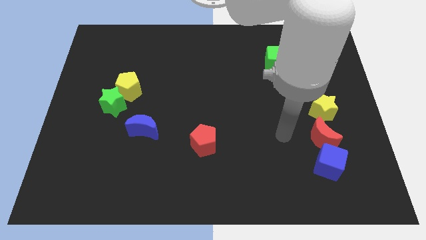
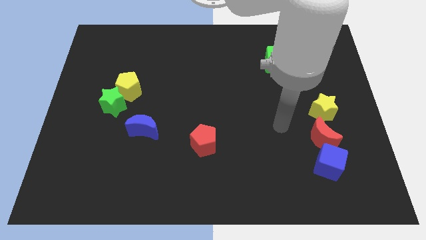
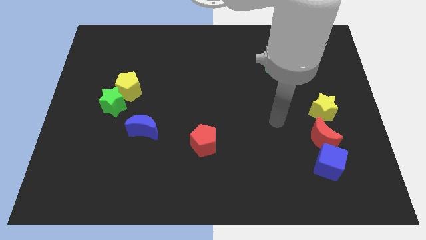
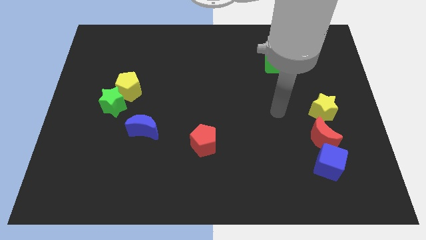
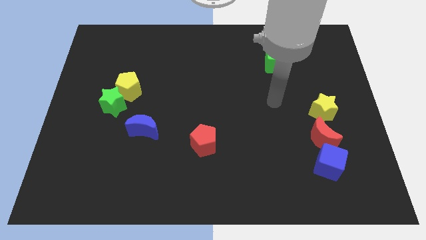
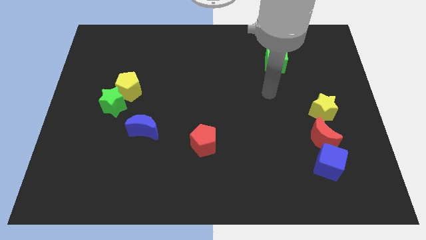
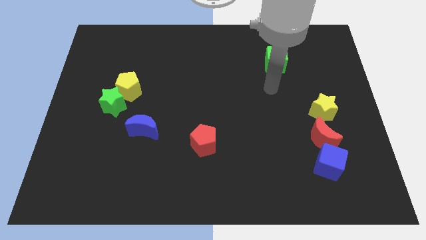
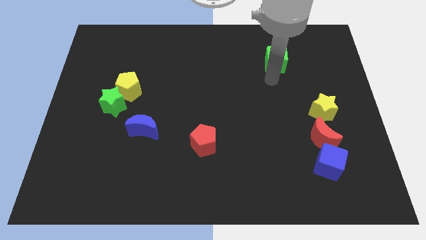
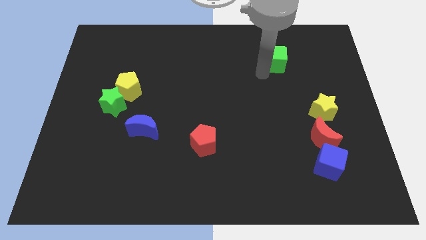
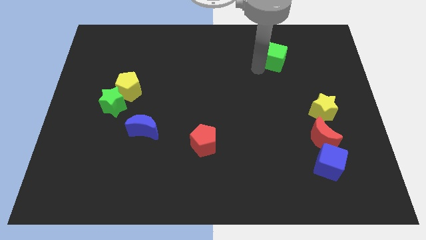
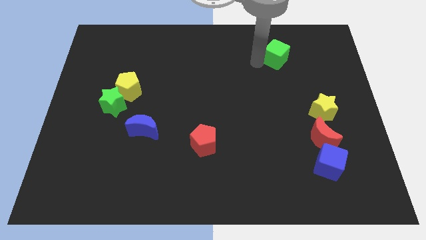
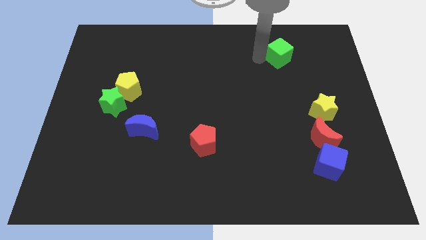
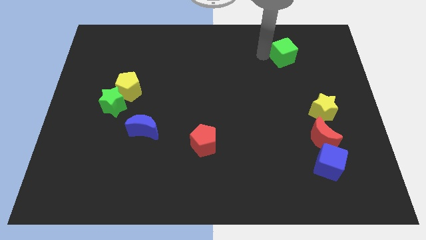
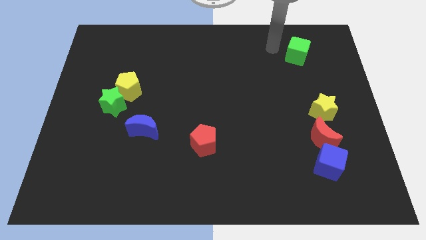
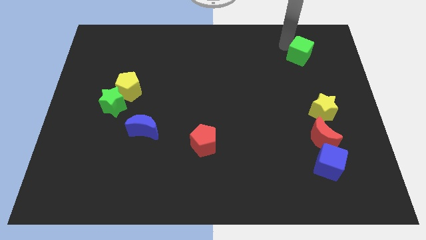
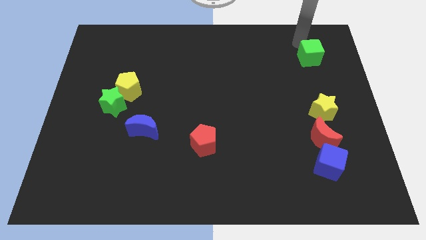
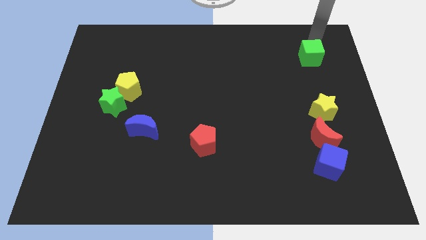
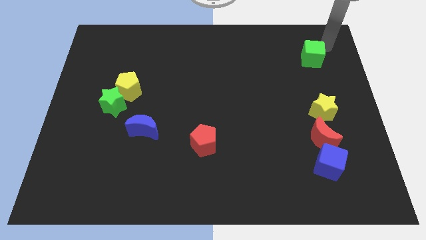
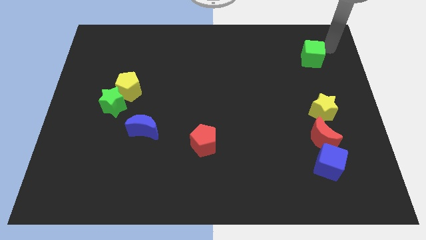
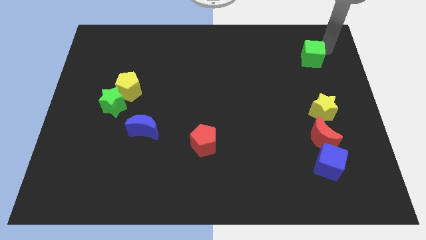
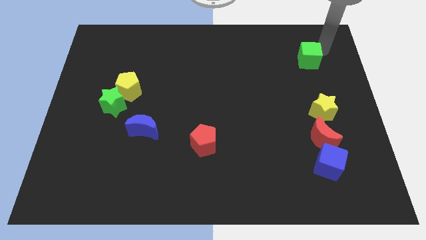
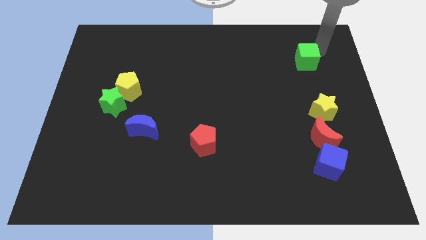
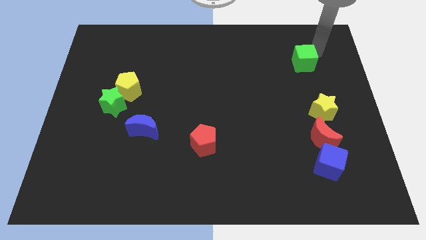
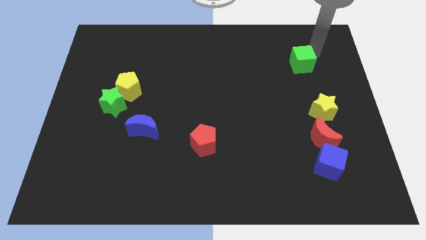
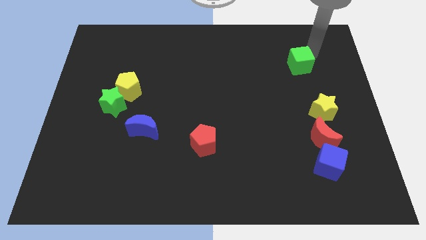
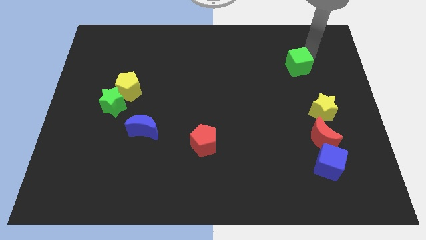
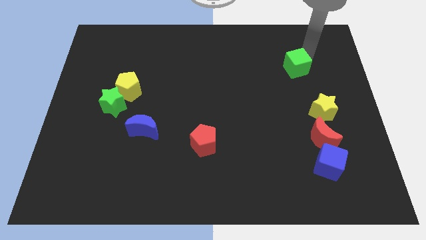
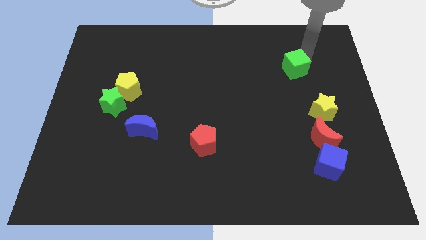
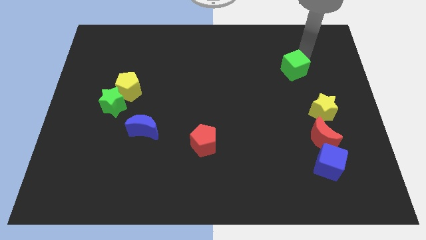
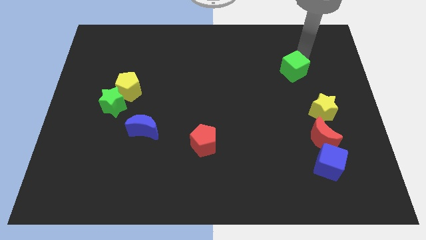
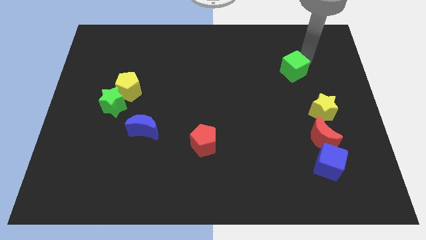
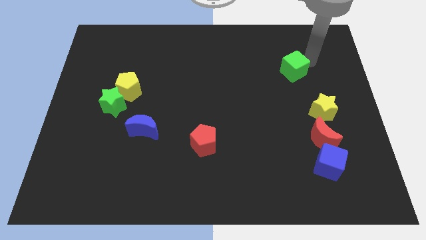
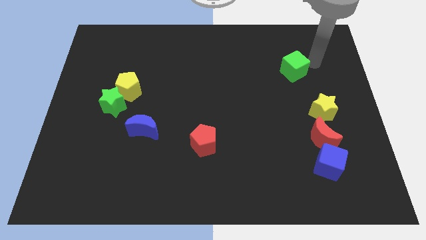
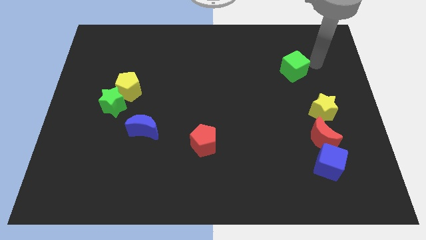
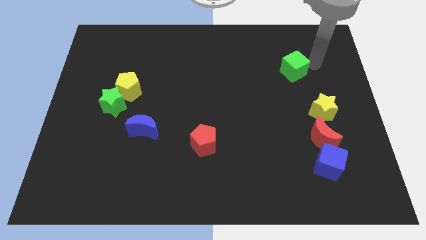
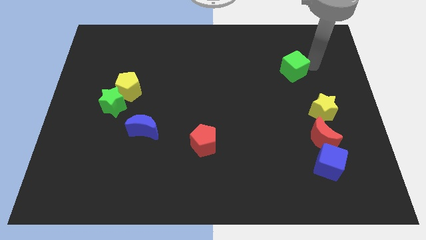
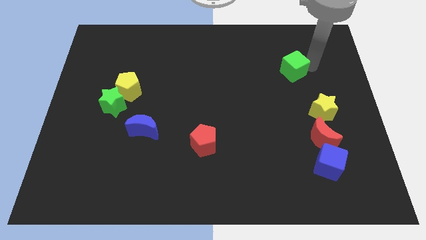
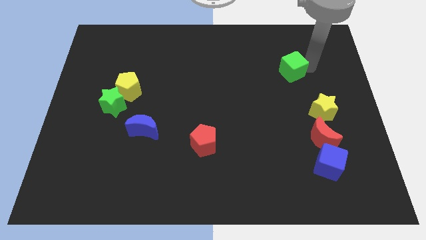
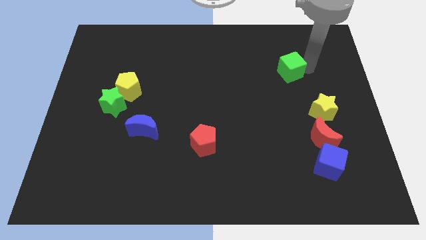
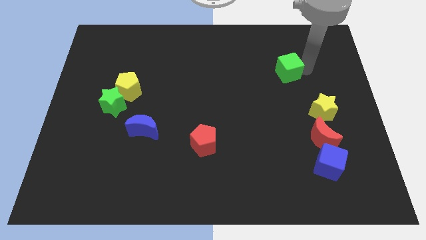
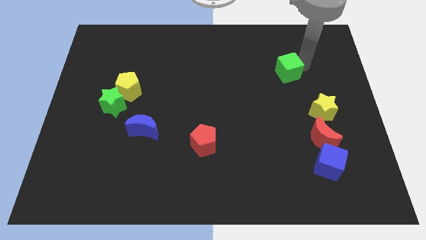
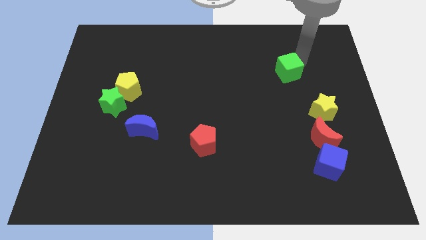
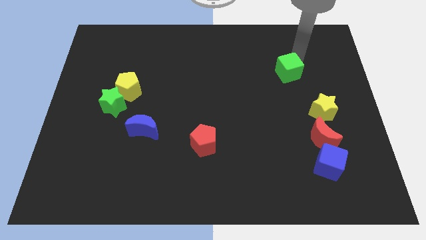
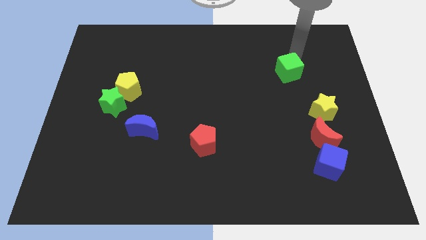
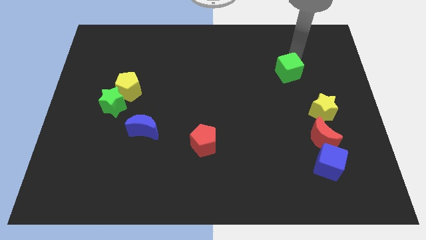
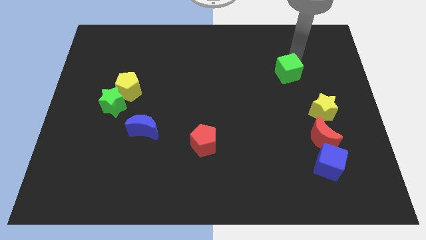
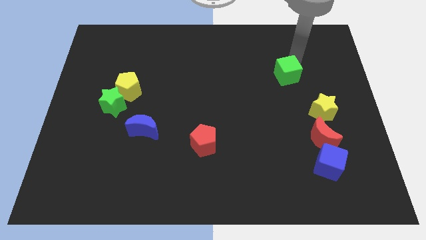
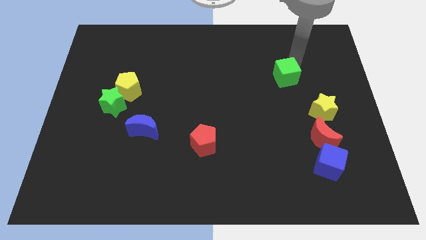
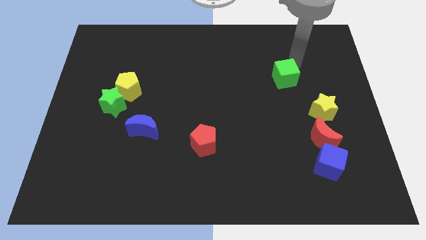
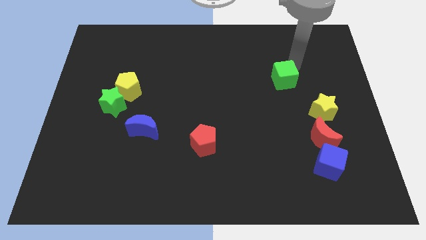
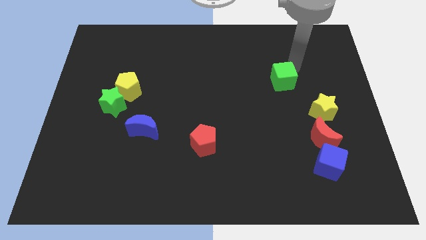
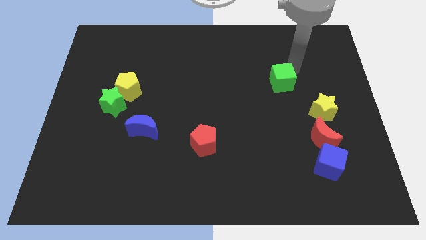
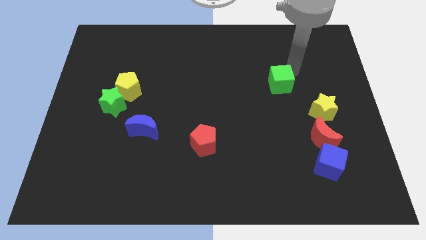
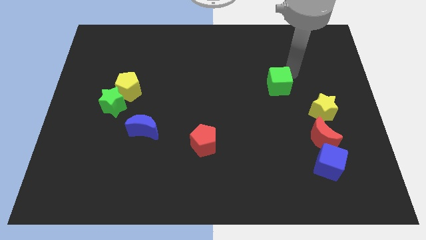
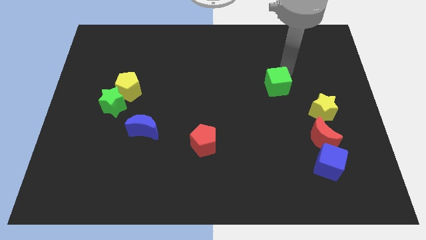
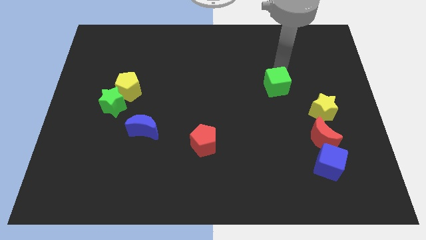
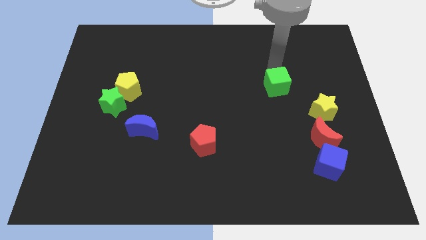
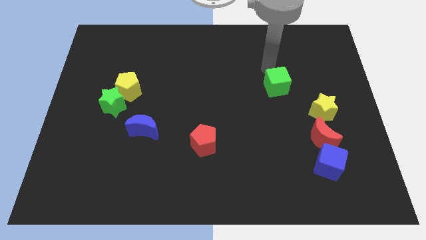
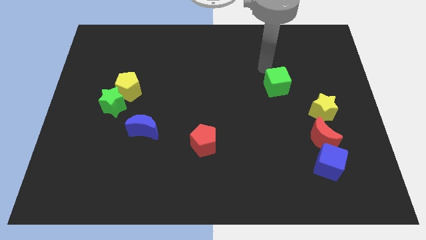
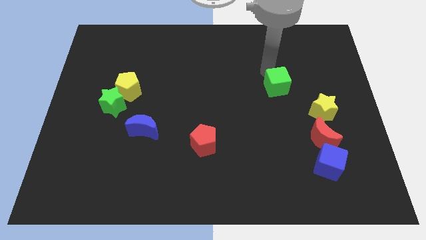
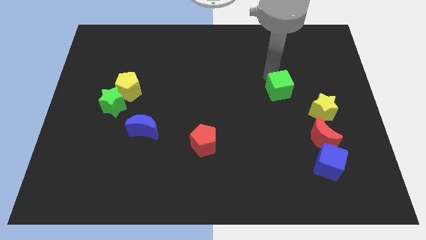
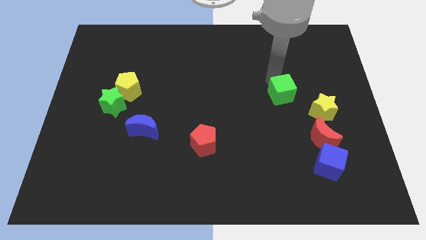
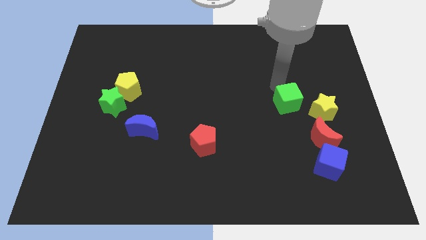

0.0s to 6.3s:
push the green cube to the top left of the red moon

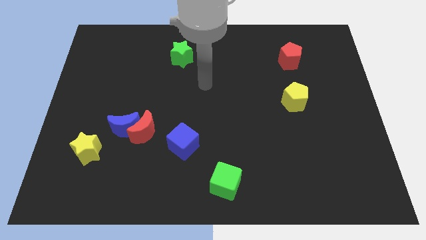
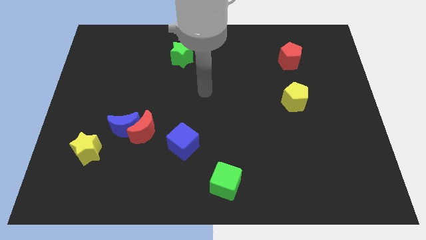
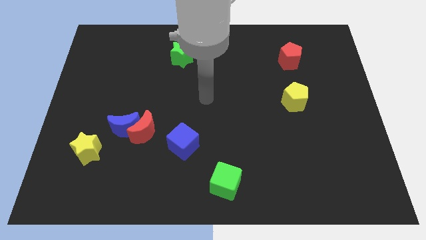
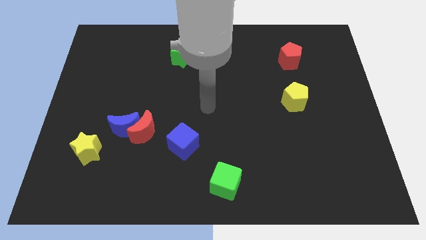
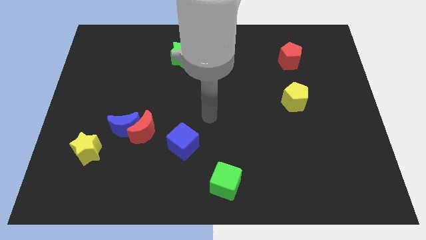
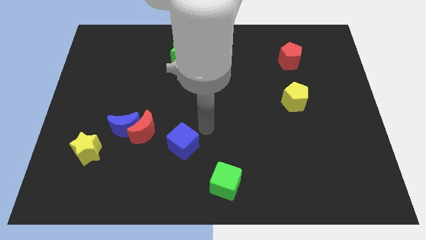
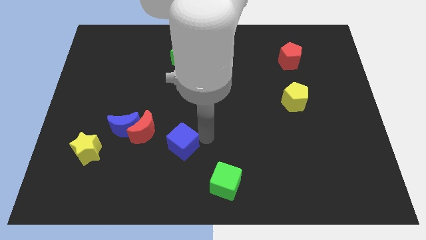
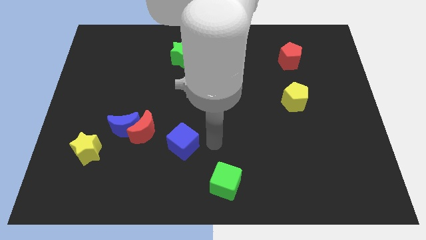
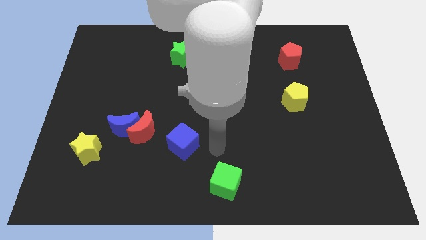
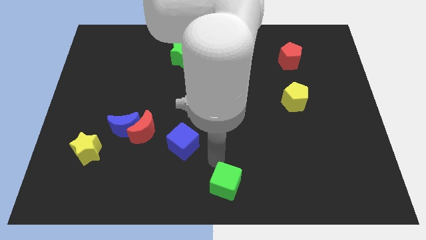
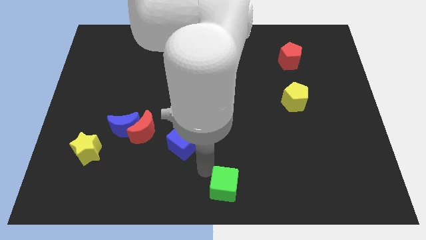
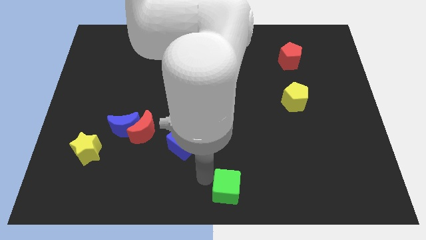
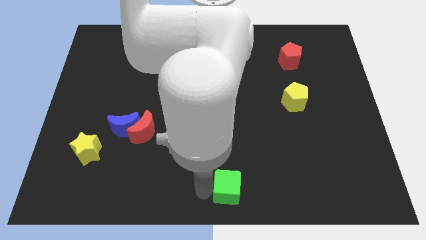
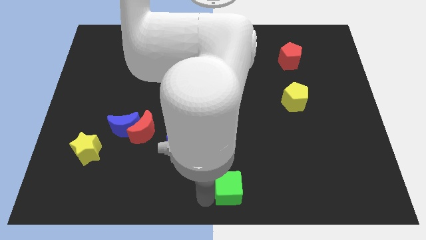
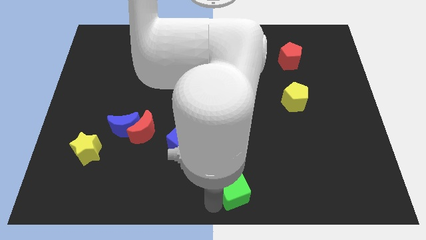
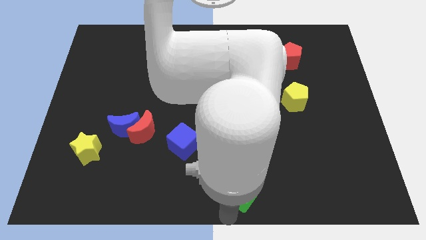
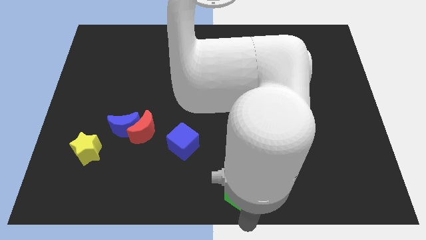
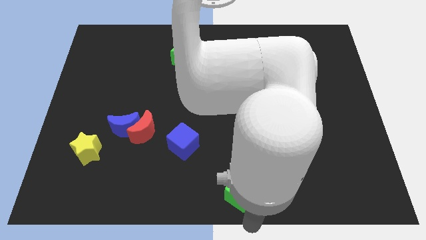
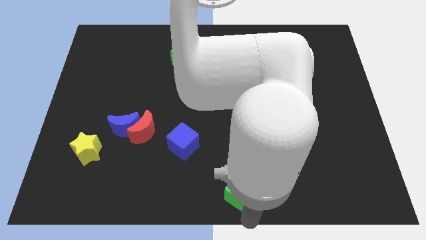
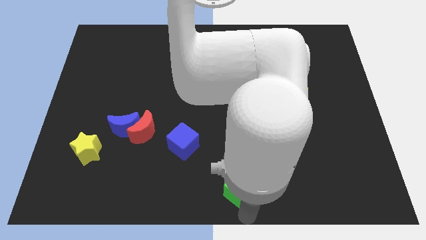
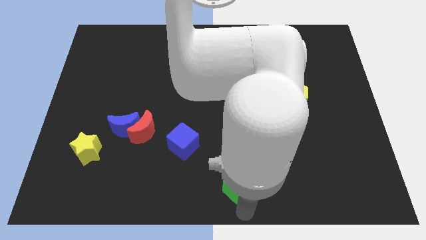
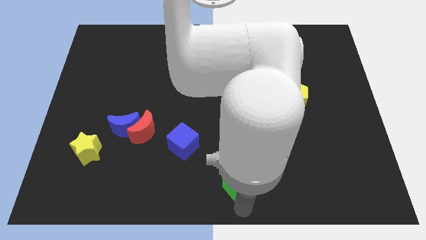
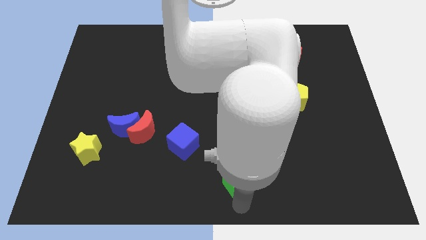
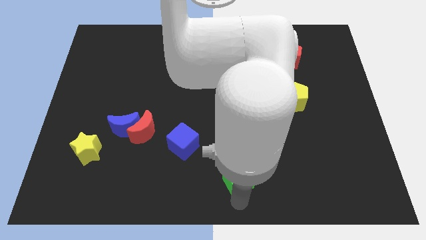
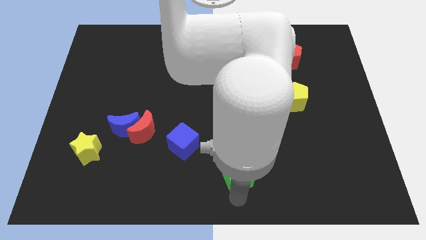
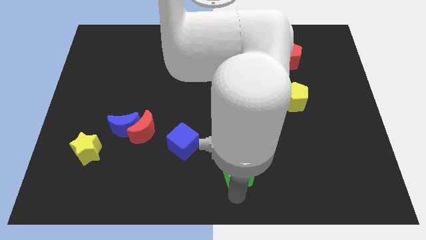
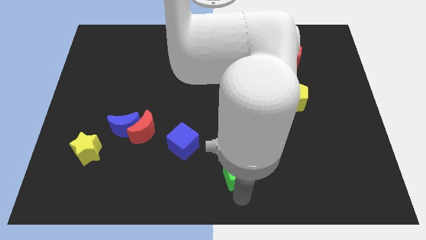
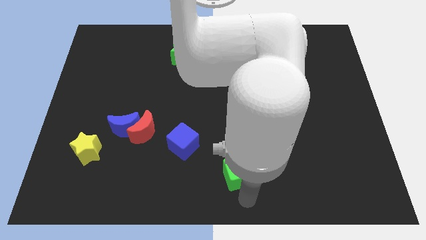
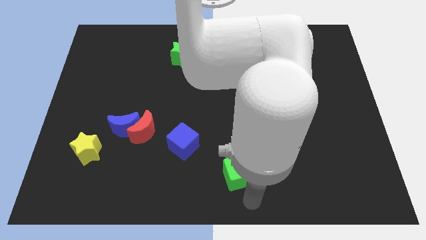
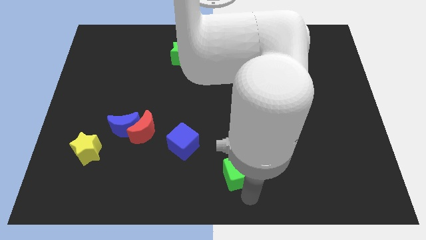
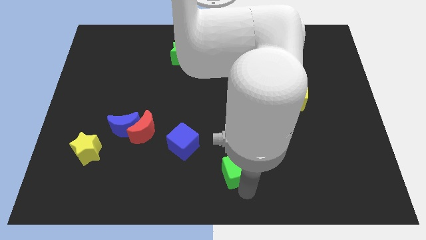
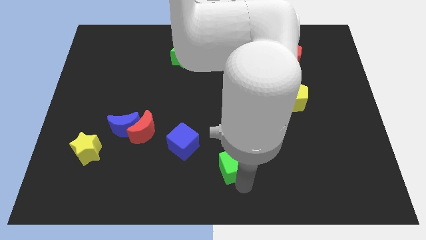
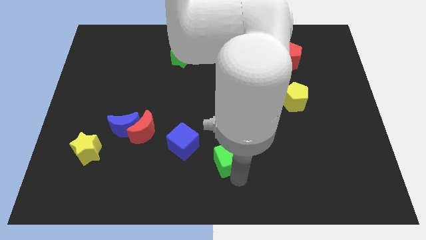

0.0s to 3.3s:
put the green cube right of the blue cube
